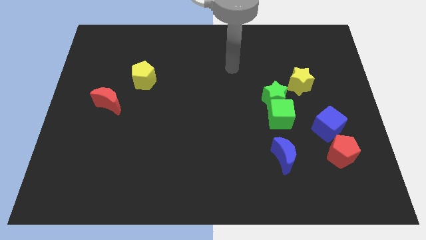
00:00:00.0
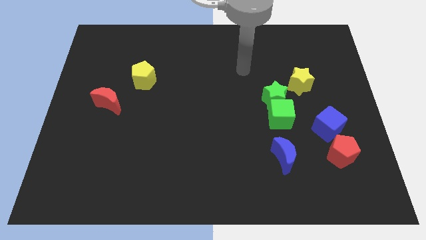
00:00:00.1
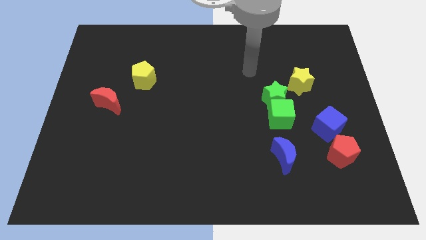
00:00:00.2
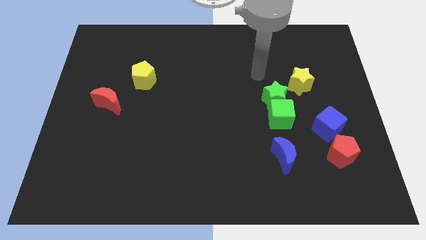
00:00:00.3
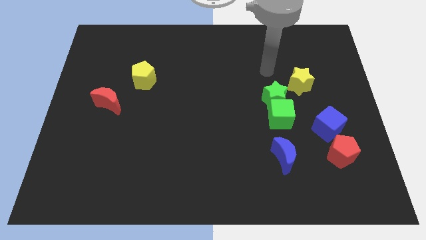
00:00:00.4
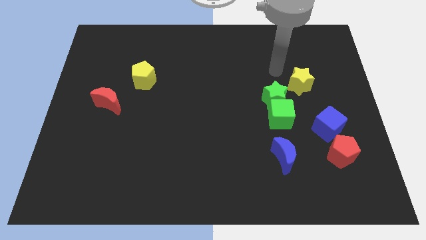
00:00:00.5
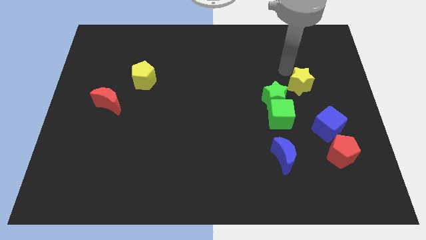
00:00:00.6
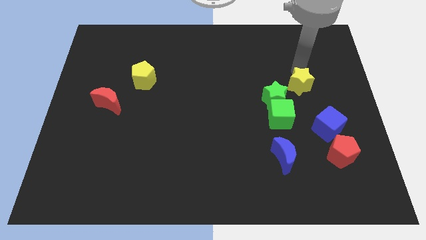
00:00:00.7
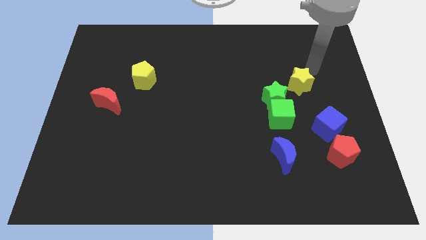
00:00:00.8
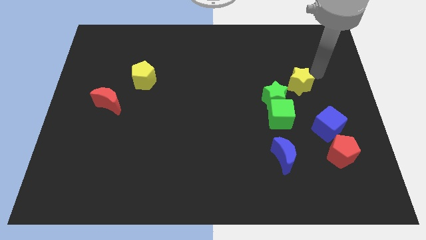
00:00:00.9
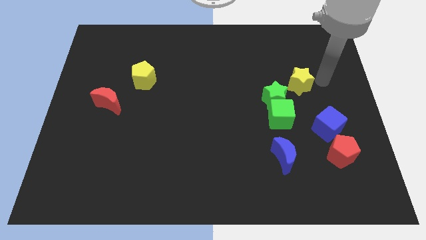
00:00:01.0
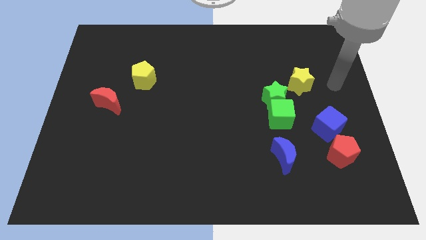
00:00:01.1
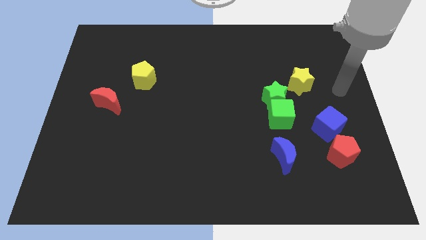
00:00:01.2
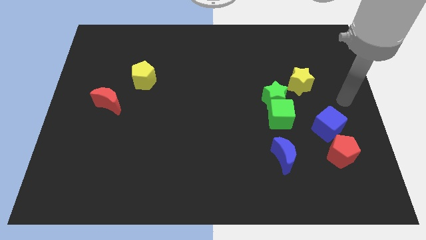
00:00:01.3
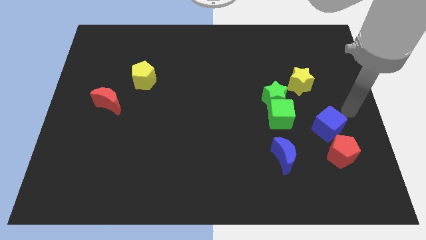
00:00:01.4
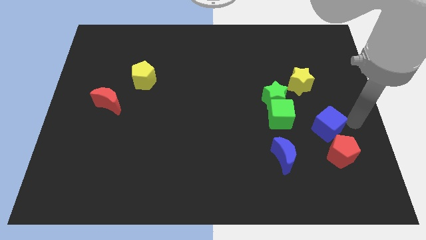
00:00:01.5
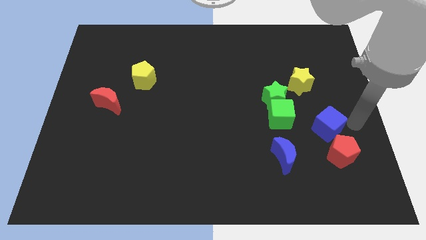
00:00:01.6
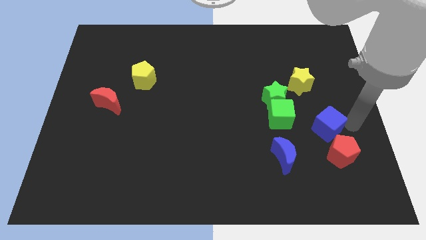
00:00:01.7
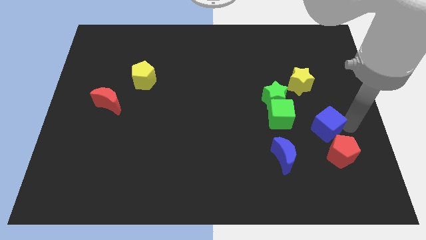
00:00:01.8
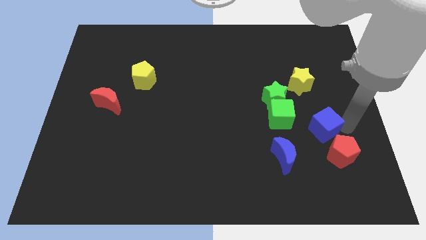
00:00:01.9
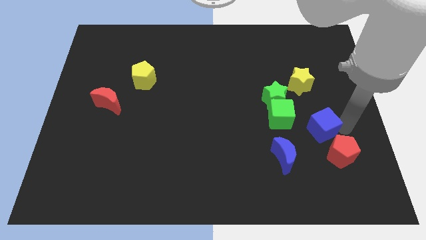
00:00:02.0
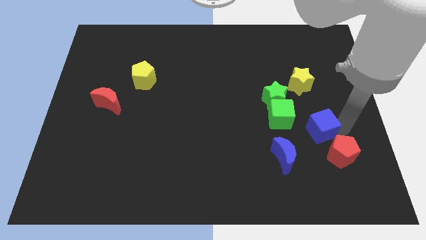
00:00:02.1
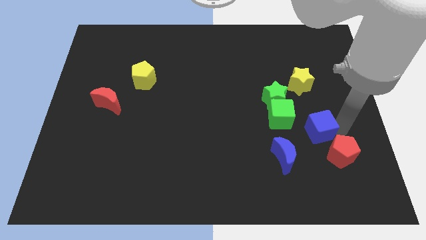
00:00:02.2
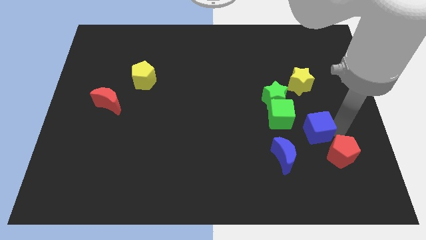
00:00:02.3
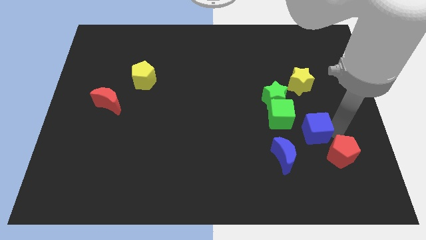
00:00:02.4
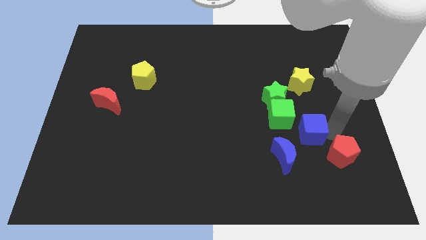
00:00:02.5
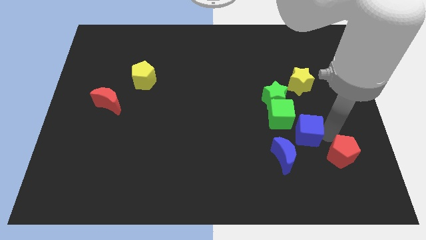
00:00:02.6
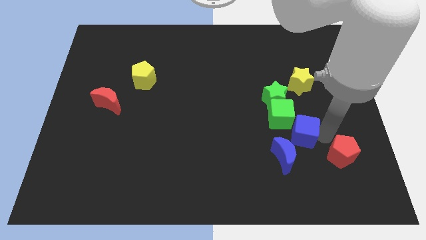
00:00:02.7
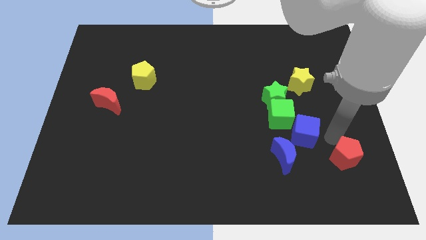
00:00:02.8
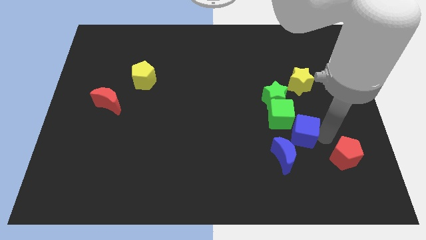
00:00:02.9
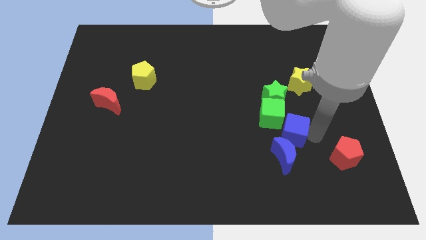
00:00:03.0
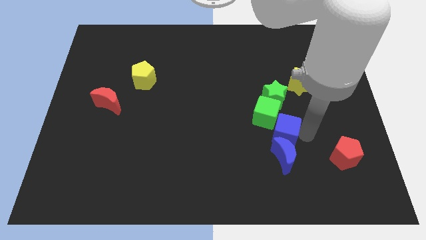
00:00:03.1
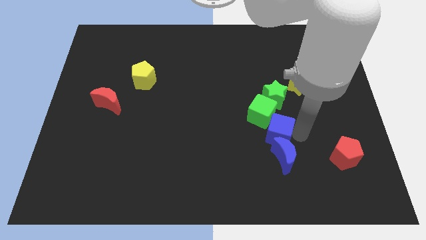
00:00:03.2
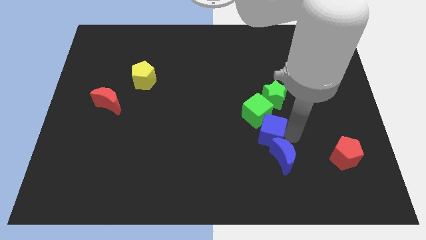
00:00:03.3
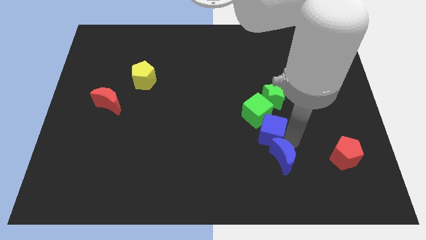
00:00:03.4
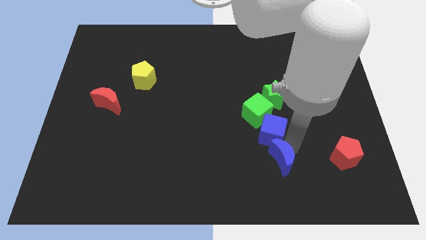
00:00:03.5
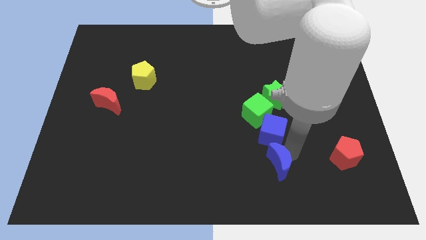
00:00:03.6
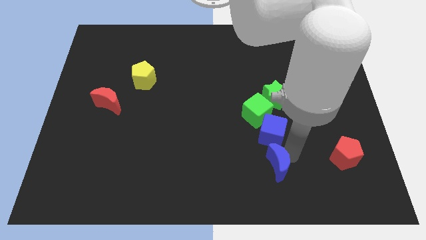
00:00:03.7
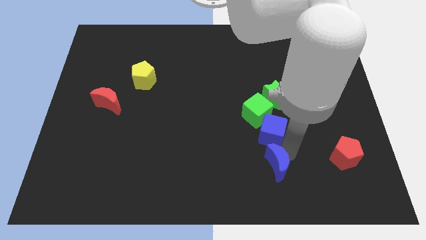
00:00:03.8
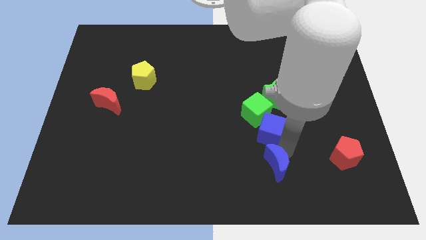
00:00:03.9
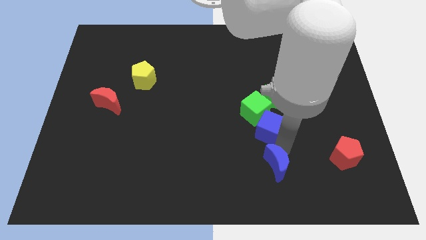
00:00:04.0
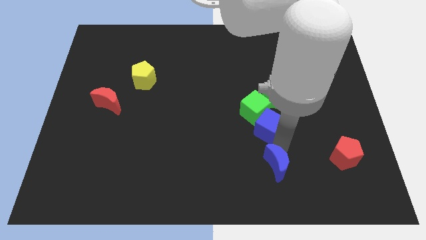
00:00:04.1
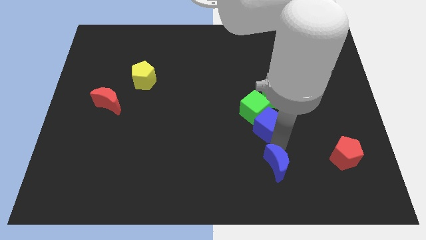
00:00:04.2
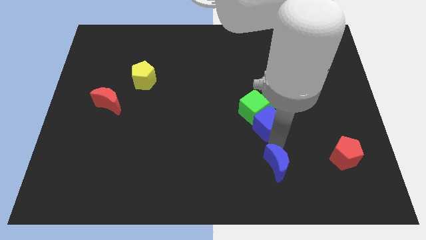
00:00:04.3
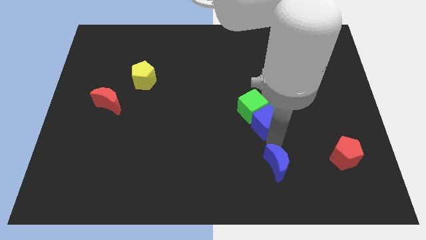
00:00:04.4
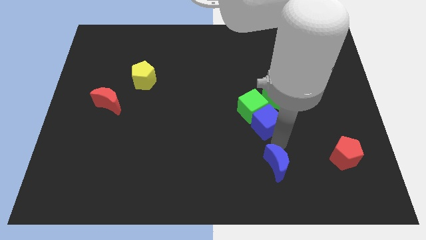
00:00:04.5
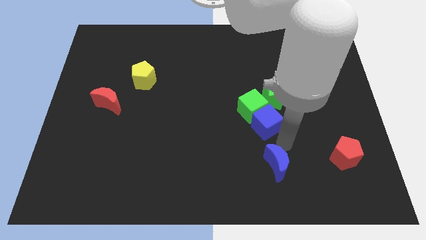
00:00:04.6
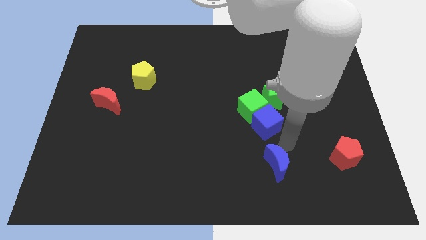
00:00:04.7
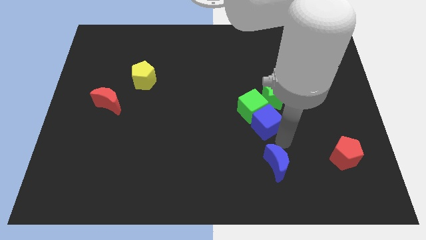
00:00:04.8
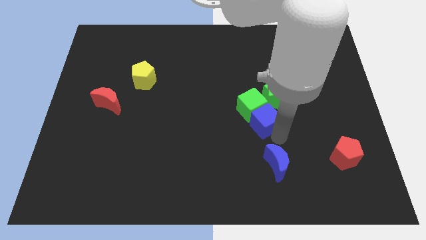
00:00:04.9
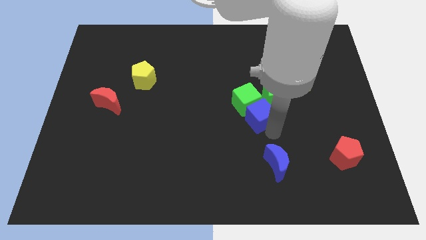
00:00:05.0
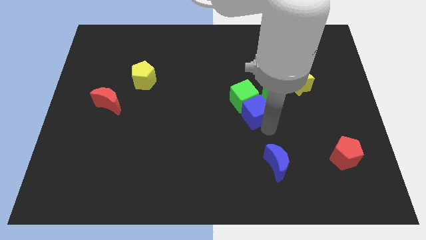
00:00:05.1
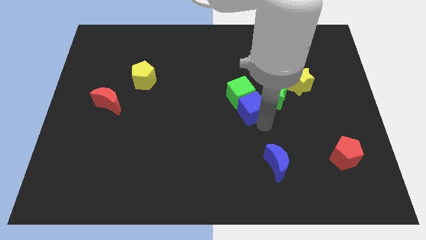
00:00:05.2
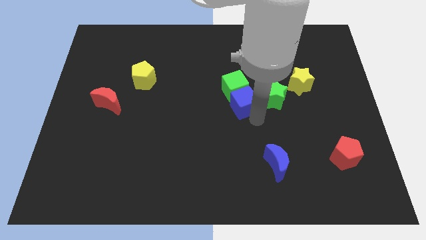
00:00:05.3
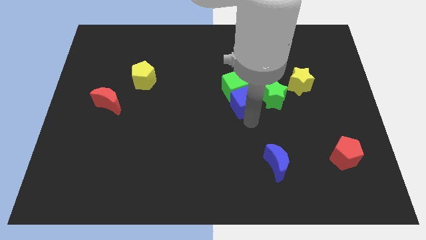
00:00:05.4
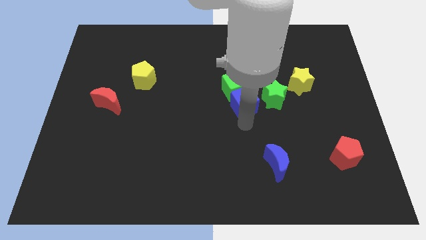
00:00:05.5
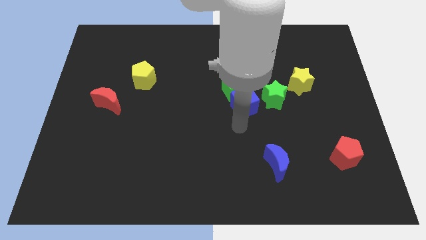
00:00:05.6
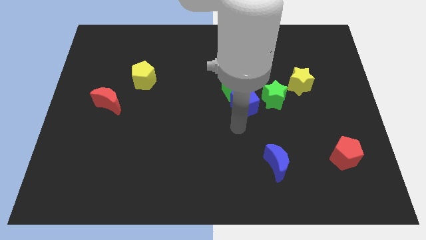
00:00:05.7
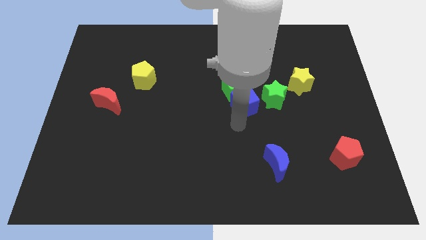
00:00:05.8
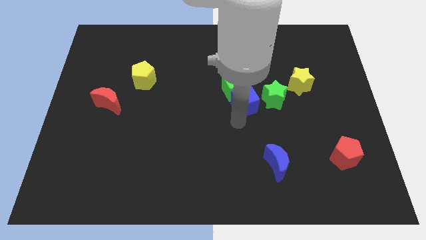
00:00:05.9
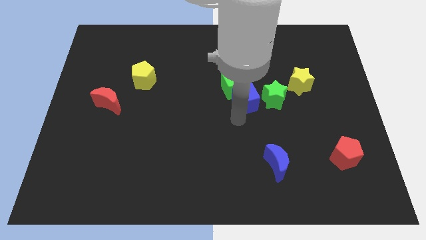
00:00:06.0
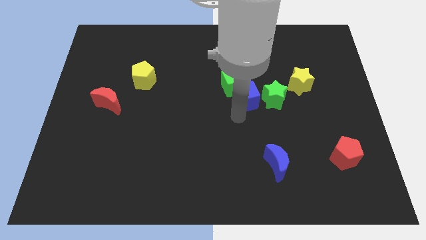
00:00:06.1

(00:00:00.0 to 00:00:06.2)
push the blue cube to the top left side of the green star

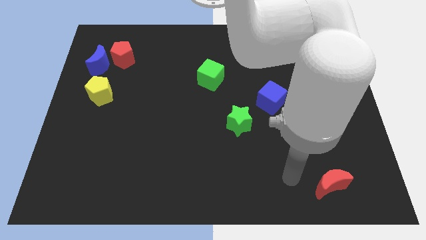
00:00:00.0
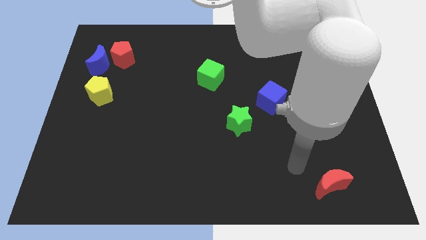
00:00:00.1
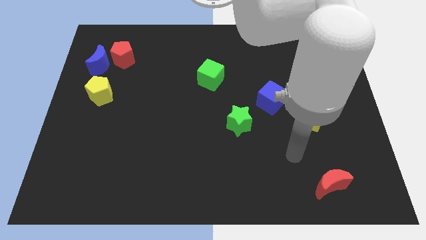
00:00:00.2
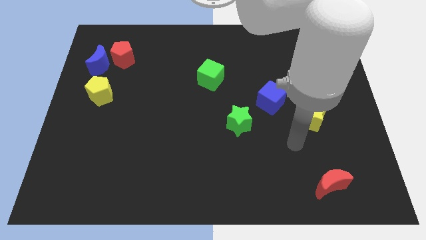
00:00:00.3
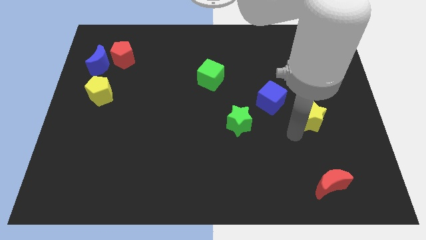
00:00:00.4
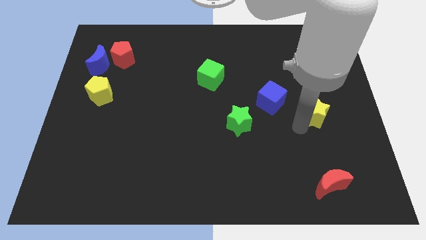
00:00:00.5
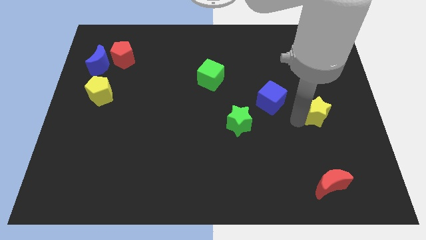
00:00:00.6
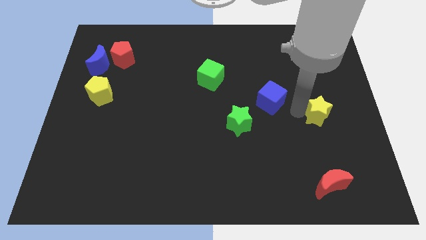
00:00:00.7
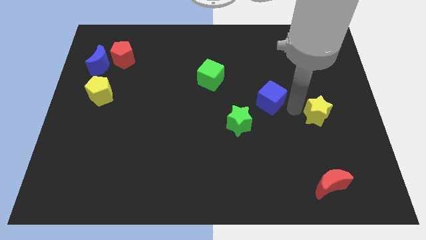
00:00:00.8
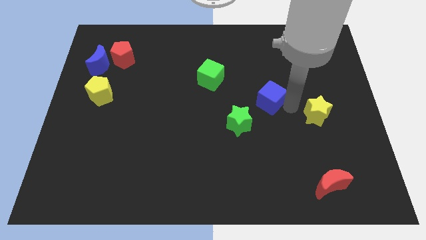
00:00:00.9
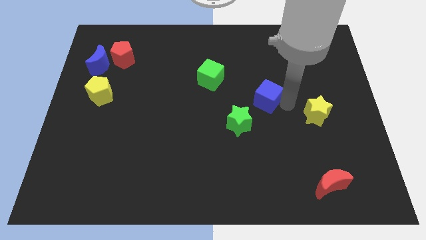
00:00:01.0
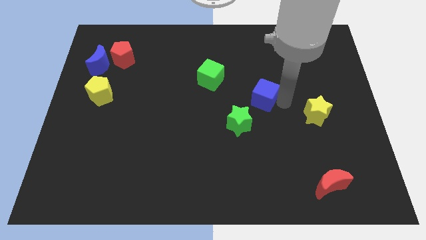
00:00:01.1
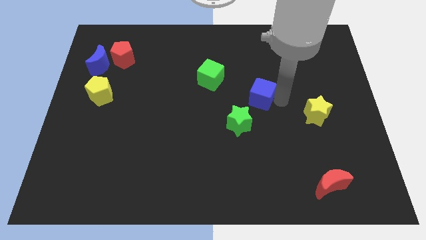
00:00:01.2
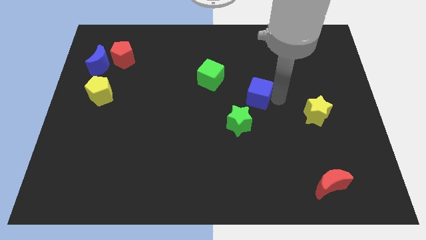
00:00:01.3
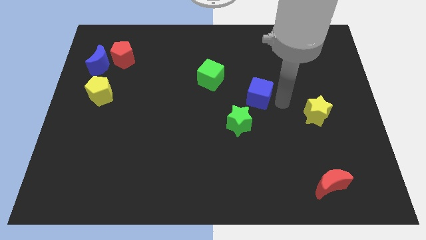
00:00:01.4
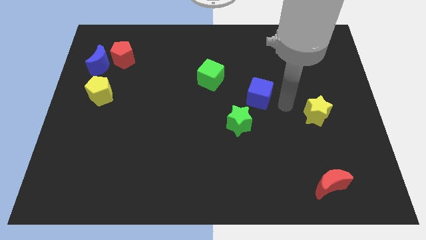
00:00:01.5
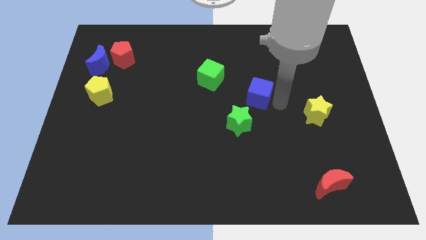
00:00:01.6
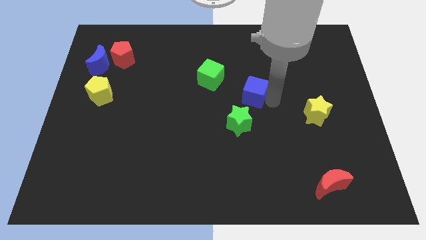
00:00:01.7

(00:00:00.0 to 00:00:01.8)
slide the blue cube above the green star
